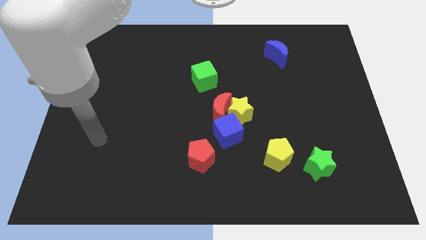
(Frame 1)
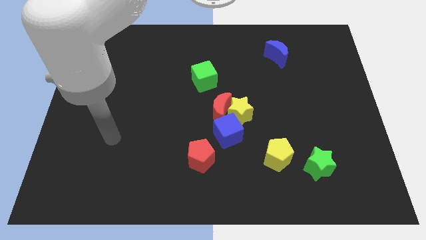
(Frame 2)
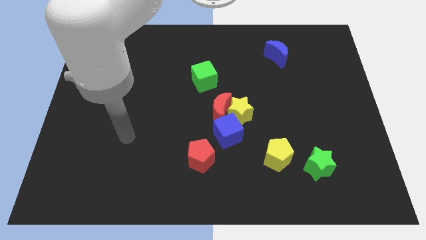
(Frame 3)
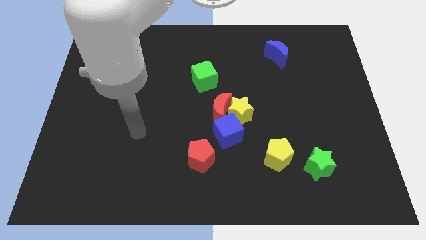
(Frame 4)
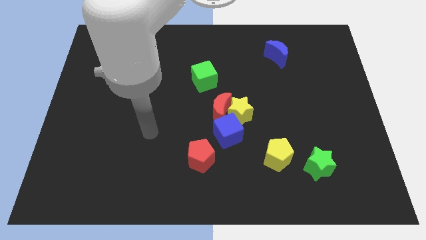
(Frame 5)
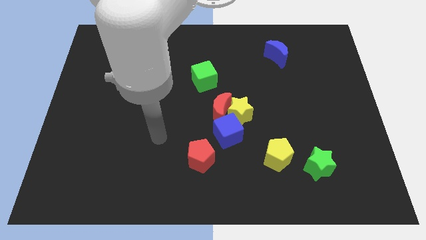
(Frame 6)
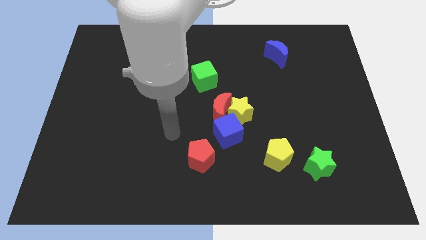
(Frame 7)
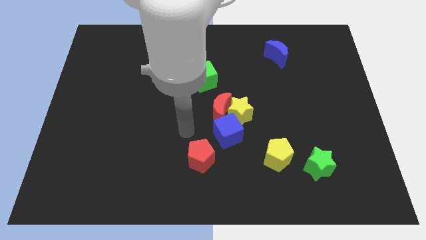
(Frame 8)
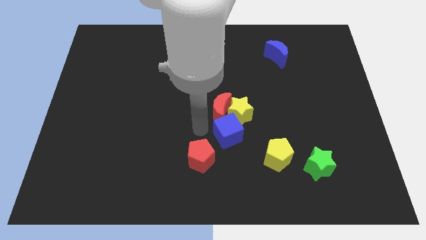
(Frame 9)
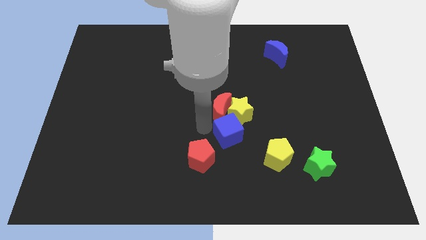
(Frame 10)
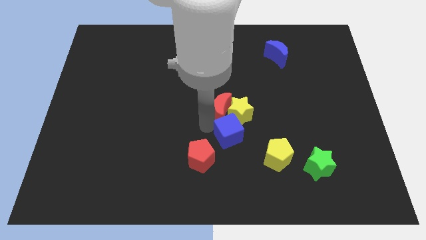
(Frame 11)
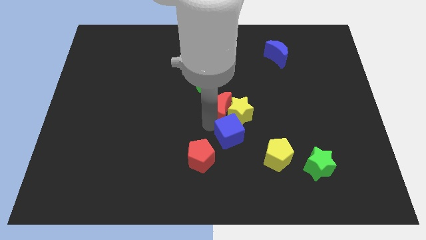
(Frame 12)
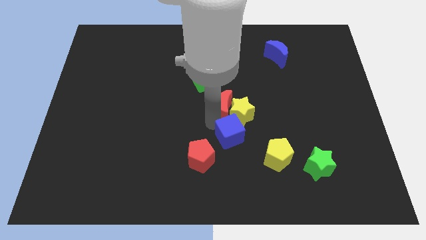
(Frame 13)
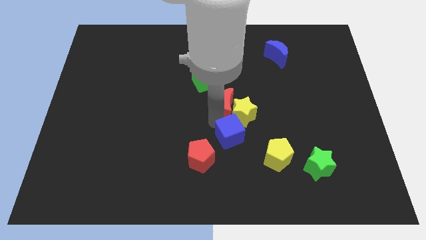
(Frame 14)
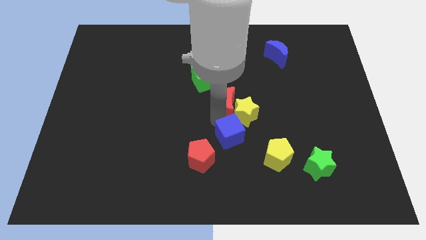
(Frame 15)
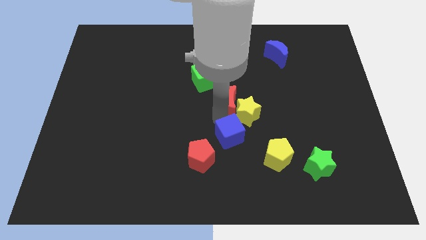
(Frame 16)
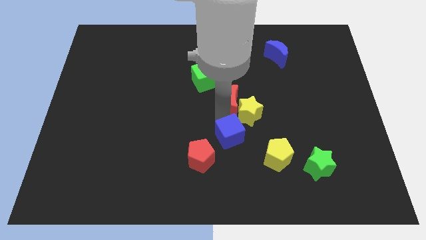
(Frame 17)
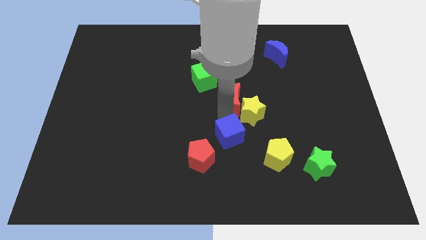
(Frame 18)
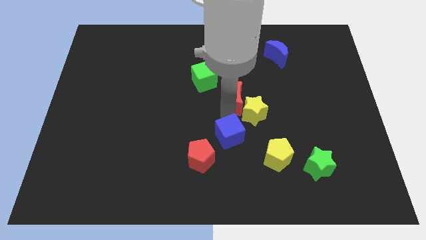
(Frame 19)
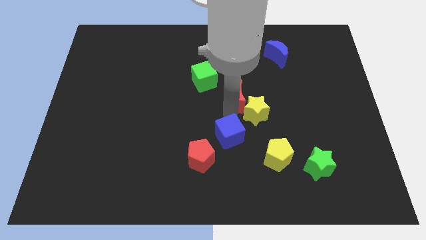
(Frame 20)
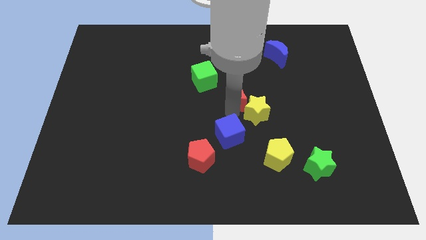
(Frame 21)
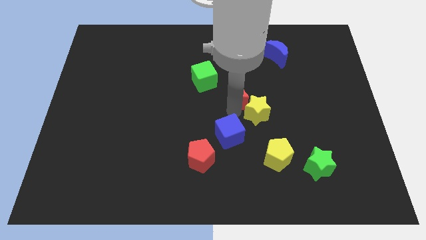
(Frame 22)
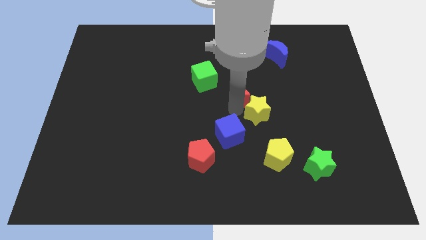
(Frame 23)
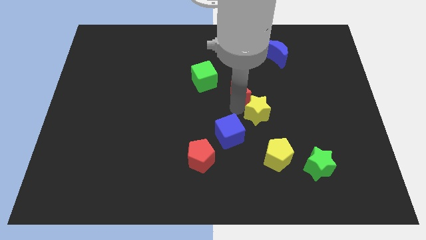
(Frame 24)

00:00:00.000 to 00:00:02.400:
slide the red moon upwards and to the right somewhat

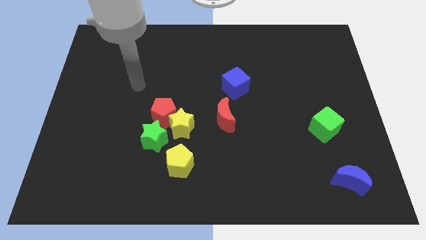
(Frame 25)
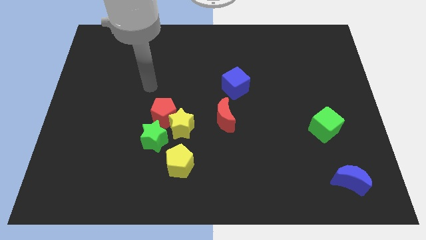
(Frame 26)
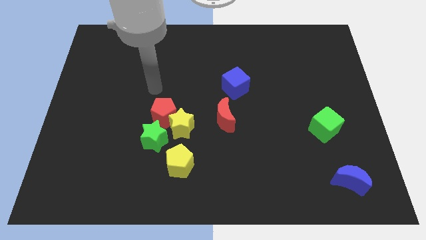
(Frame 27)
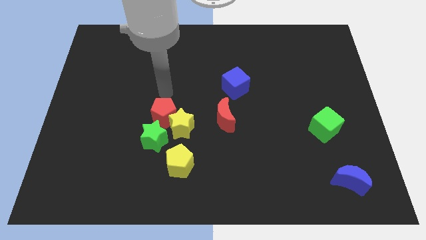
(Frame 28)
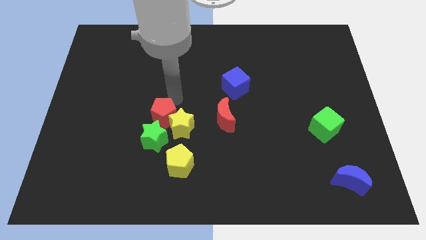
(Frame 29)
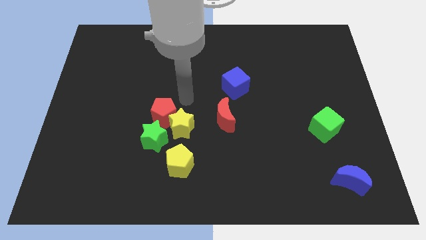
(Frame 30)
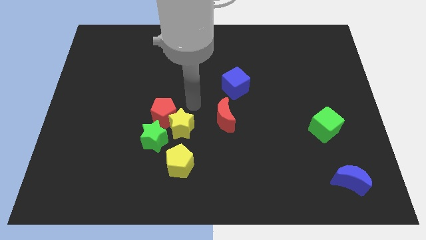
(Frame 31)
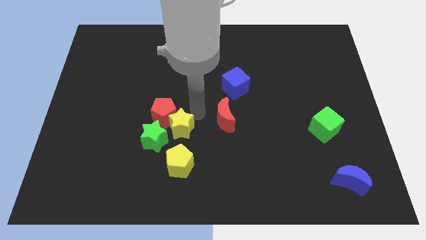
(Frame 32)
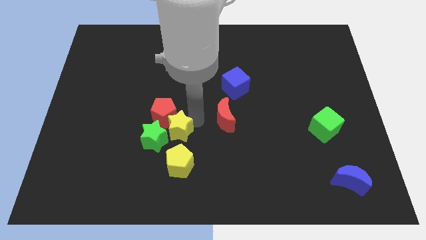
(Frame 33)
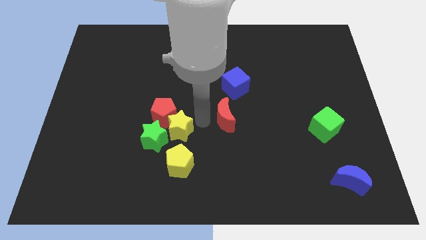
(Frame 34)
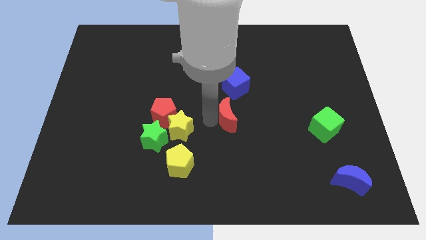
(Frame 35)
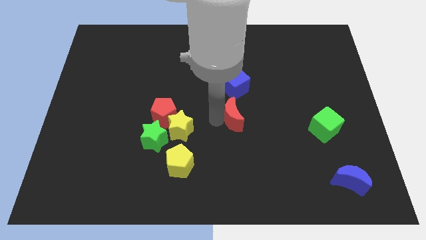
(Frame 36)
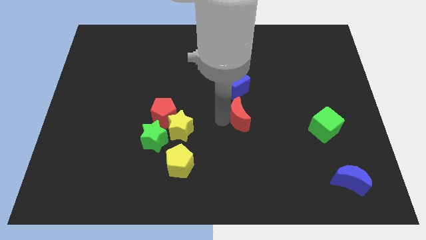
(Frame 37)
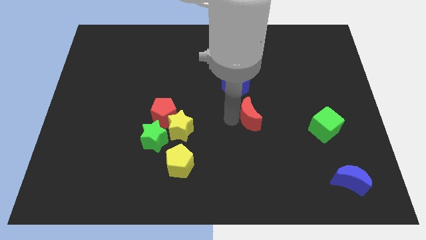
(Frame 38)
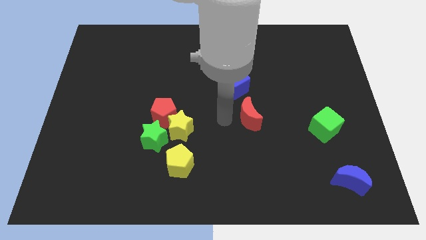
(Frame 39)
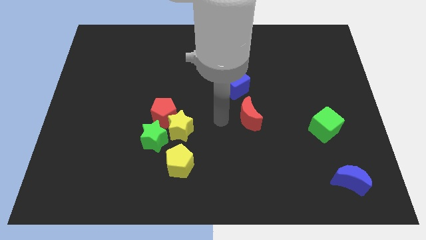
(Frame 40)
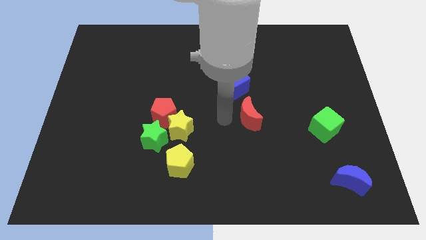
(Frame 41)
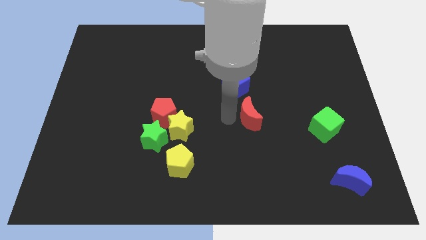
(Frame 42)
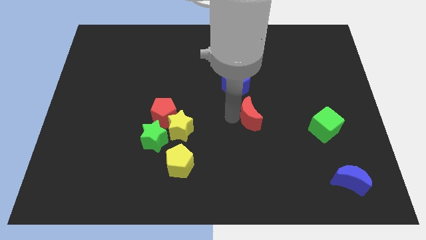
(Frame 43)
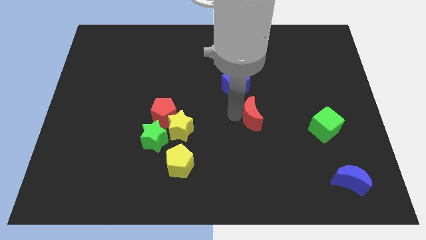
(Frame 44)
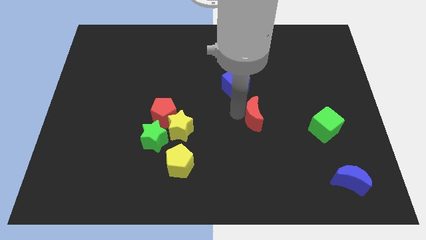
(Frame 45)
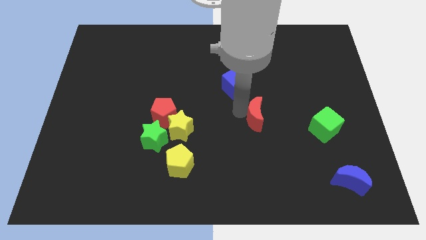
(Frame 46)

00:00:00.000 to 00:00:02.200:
slide the red moon a bit to the right

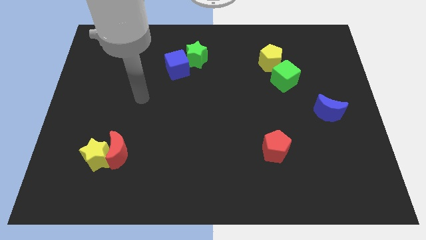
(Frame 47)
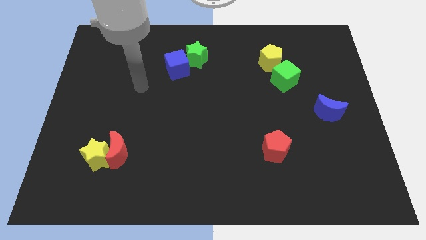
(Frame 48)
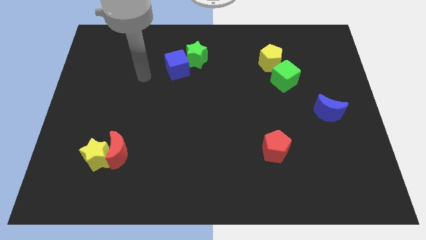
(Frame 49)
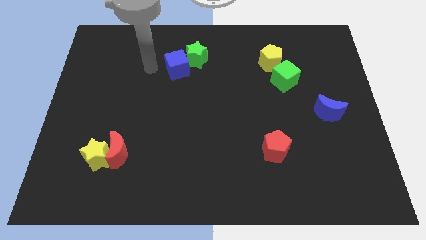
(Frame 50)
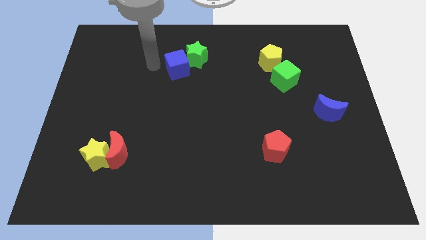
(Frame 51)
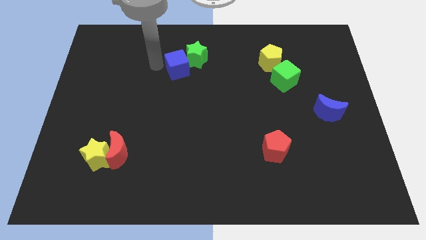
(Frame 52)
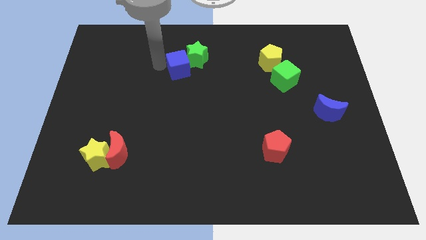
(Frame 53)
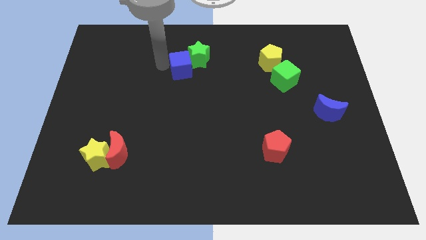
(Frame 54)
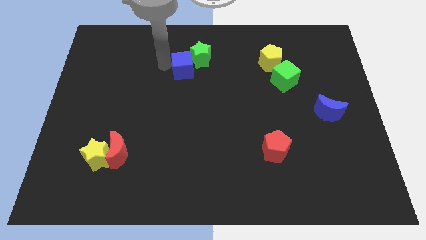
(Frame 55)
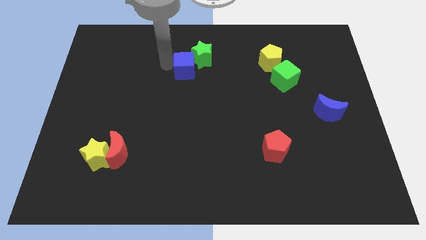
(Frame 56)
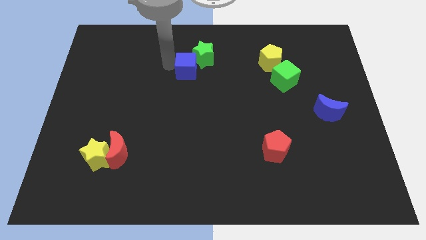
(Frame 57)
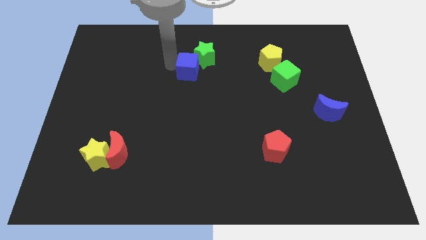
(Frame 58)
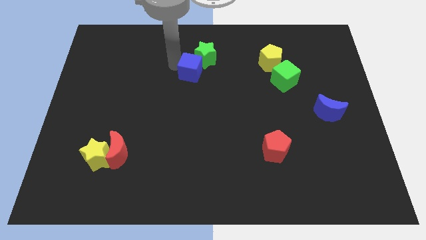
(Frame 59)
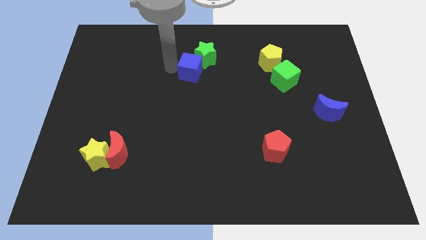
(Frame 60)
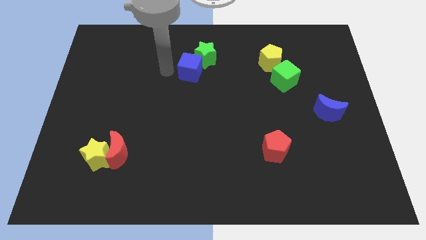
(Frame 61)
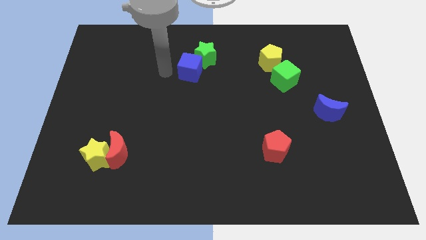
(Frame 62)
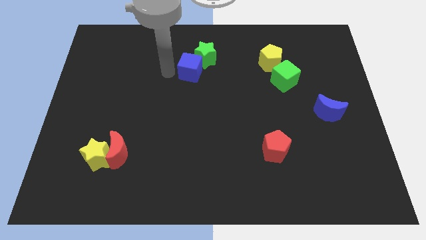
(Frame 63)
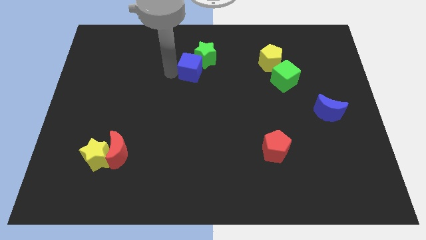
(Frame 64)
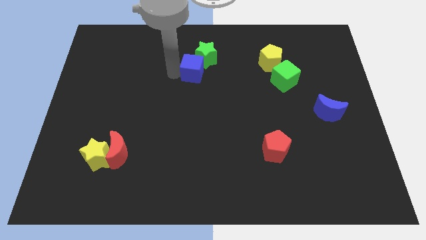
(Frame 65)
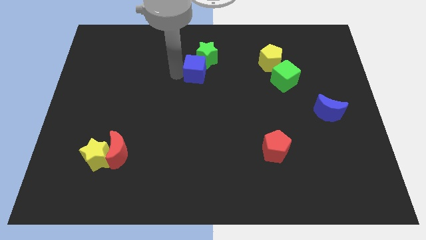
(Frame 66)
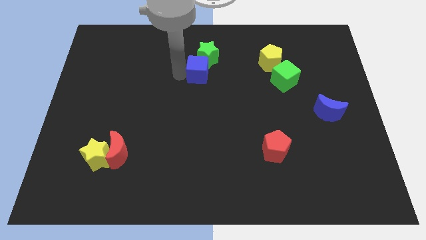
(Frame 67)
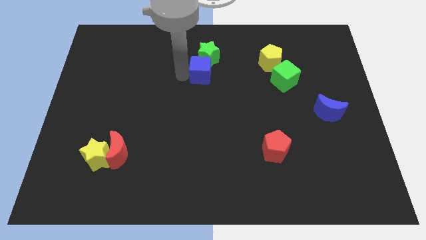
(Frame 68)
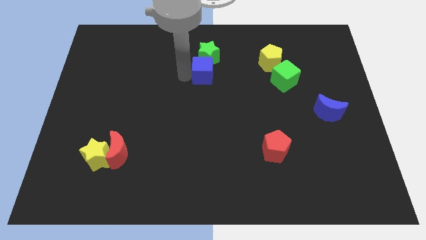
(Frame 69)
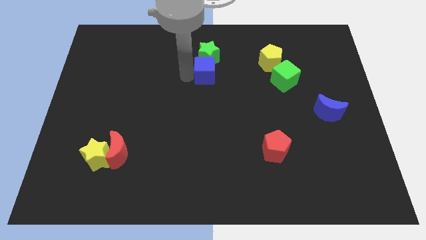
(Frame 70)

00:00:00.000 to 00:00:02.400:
slightly push the blue cube right

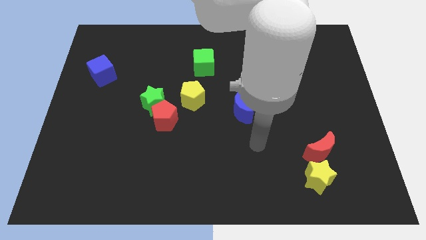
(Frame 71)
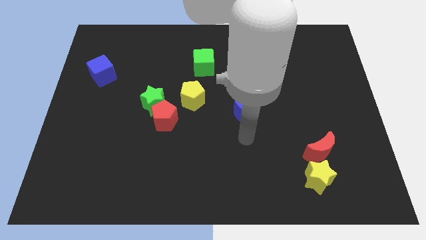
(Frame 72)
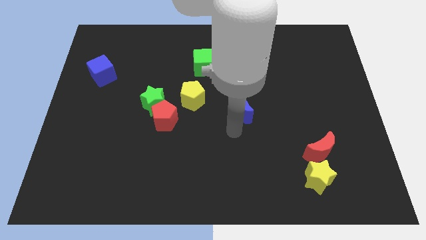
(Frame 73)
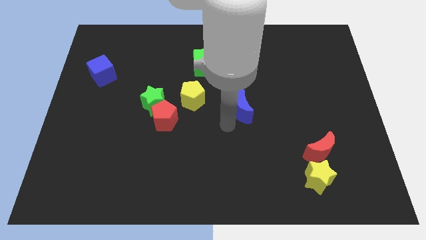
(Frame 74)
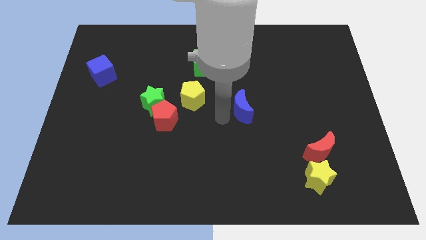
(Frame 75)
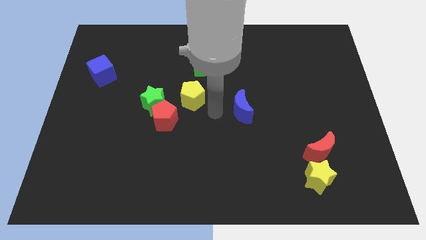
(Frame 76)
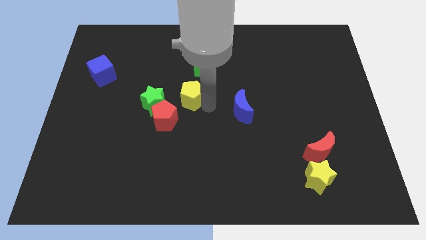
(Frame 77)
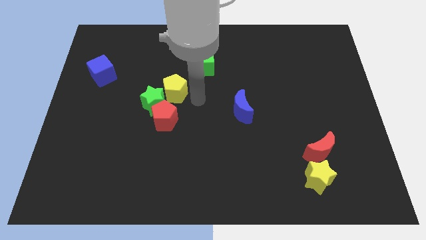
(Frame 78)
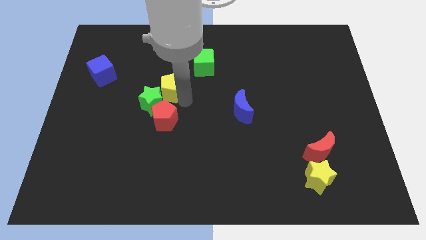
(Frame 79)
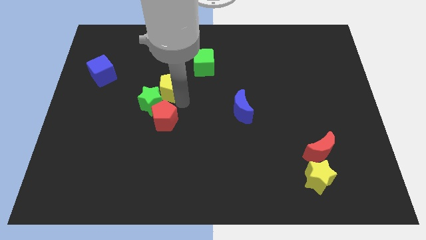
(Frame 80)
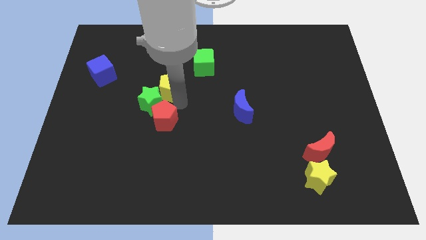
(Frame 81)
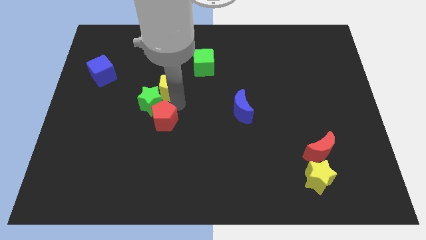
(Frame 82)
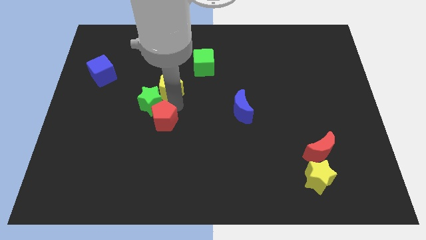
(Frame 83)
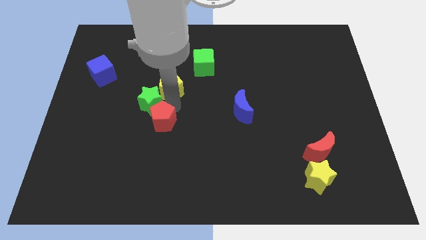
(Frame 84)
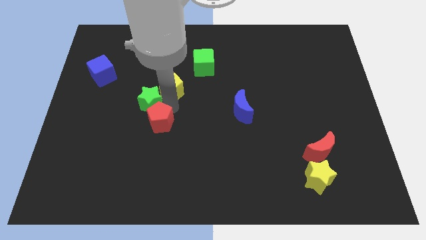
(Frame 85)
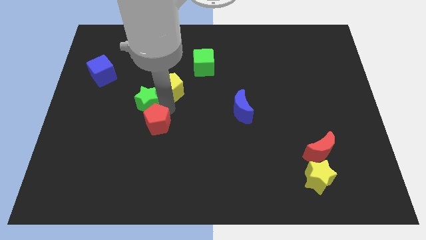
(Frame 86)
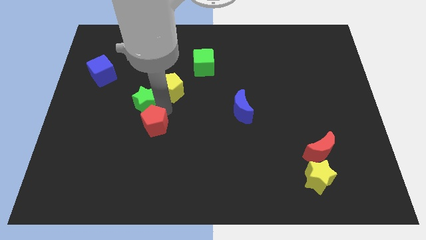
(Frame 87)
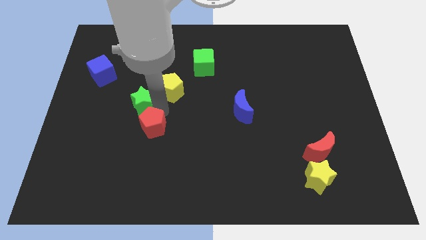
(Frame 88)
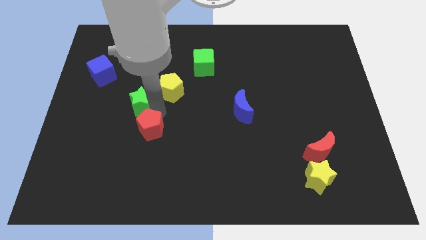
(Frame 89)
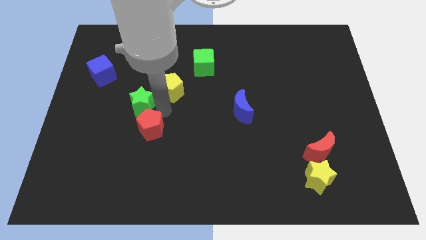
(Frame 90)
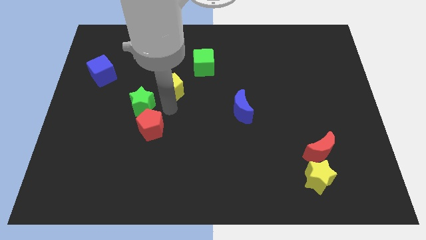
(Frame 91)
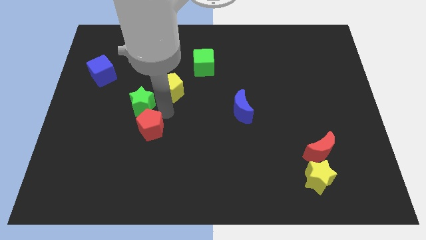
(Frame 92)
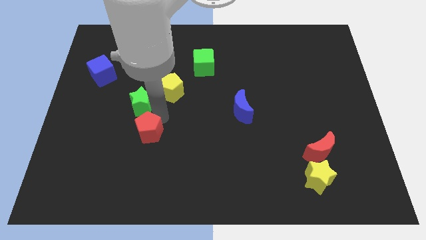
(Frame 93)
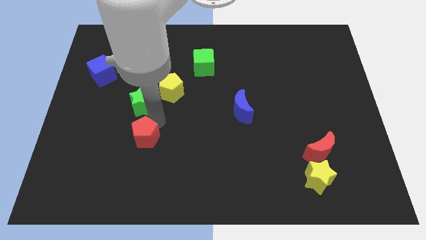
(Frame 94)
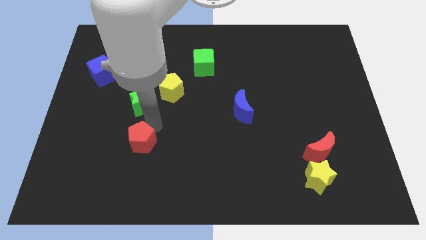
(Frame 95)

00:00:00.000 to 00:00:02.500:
move the red pentagon somewhat diagonally down and to the left
